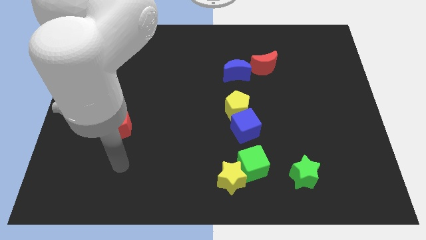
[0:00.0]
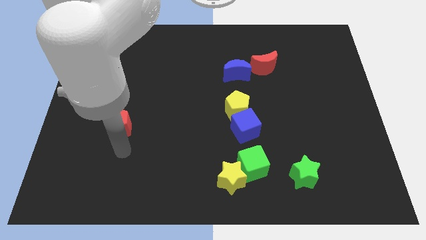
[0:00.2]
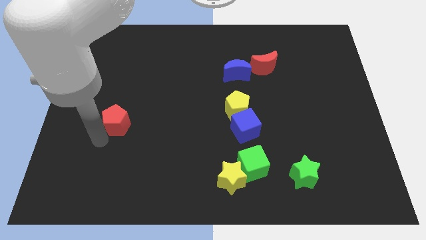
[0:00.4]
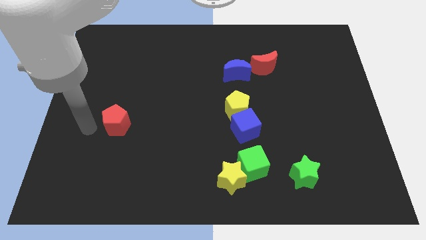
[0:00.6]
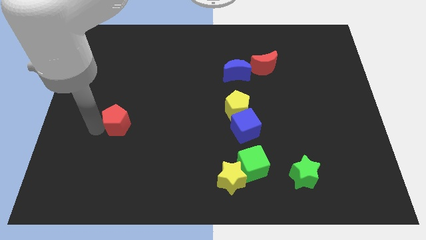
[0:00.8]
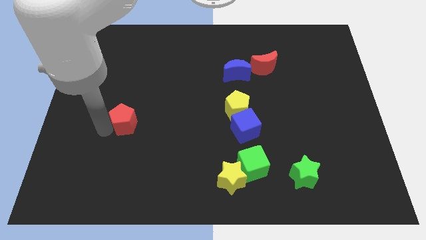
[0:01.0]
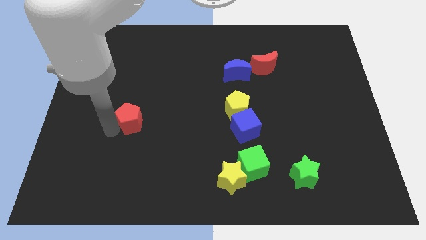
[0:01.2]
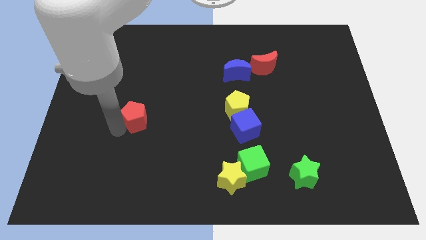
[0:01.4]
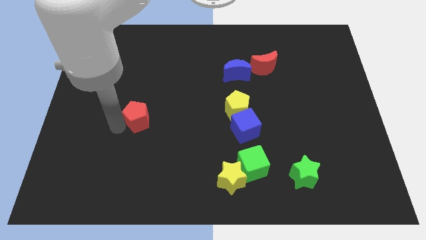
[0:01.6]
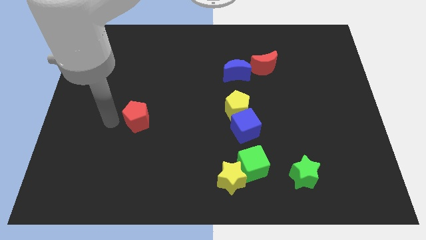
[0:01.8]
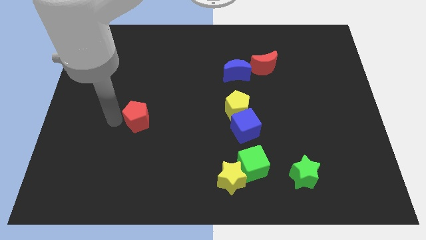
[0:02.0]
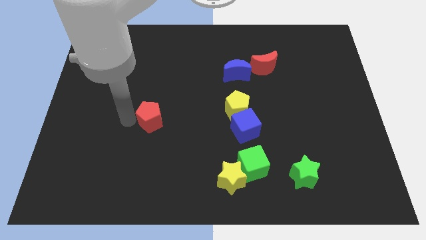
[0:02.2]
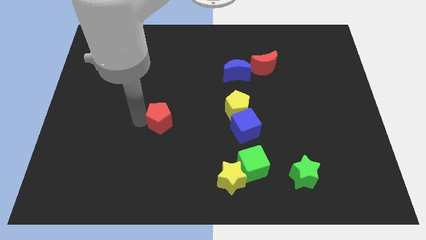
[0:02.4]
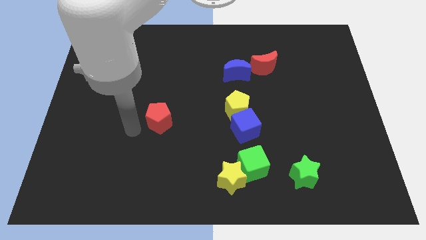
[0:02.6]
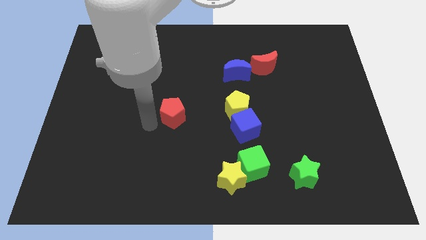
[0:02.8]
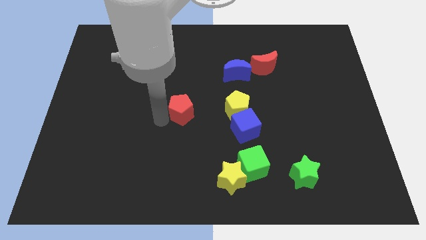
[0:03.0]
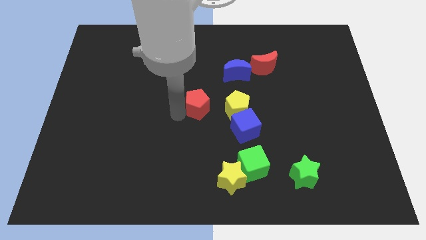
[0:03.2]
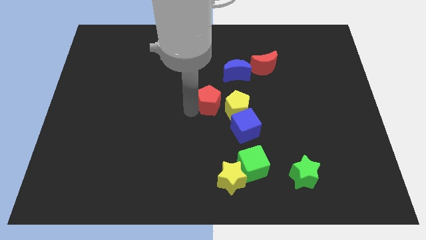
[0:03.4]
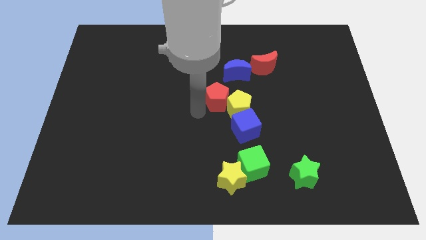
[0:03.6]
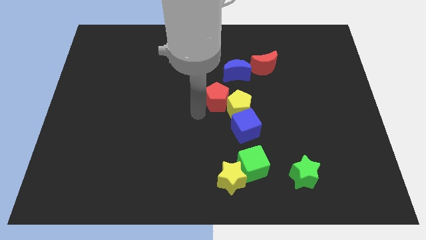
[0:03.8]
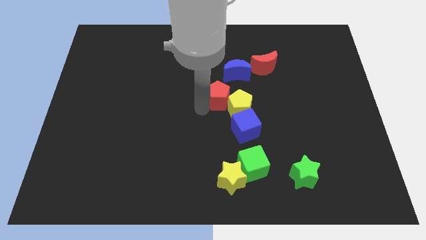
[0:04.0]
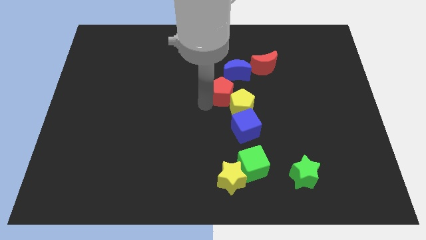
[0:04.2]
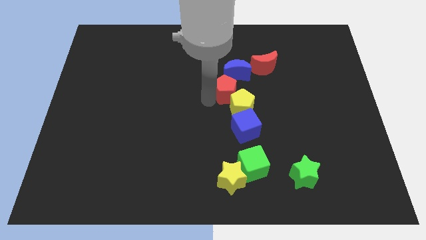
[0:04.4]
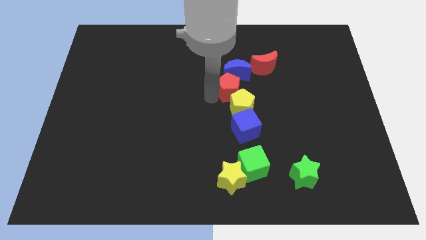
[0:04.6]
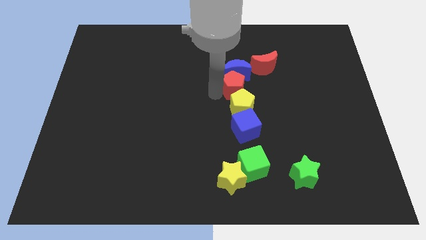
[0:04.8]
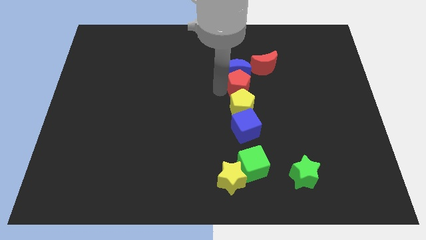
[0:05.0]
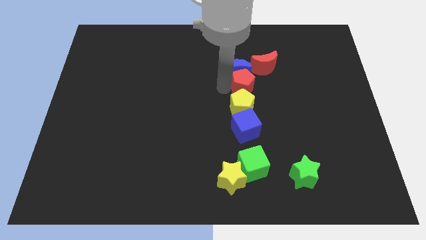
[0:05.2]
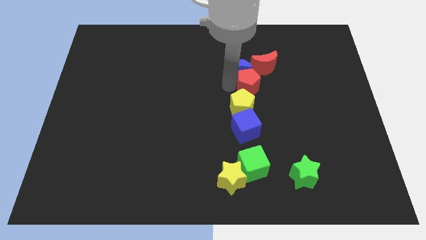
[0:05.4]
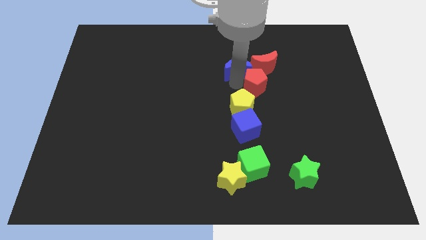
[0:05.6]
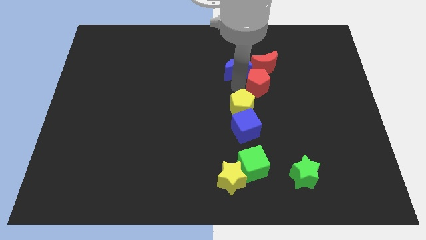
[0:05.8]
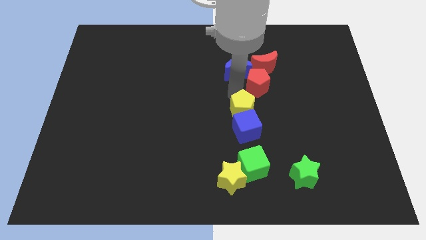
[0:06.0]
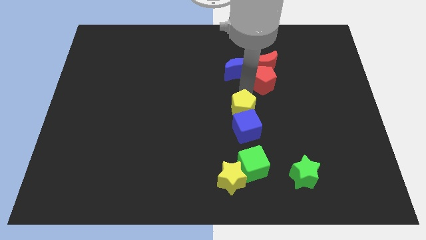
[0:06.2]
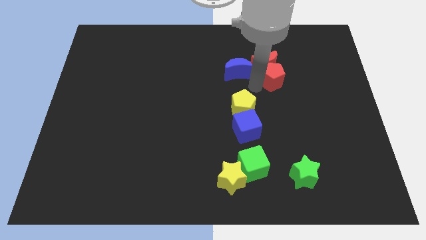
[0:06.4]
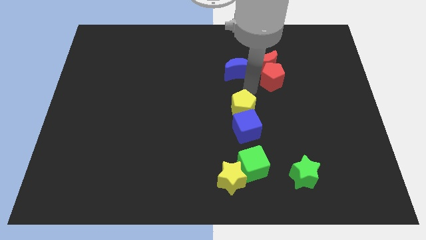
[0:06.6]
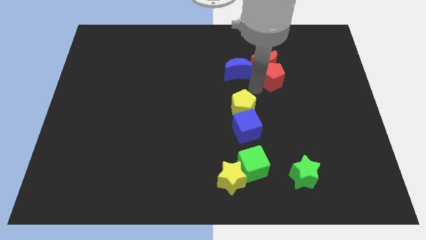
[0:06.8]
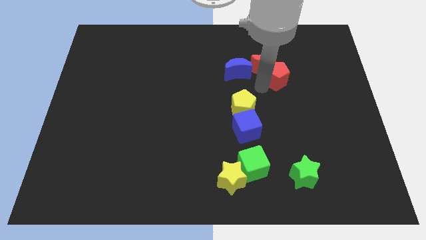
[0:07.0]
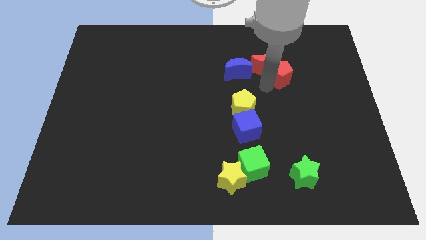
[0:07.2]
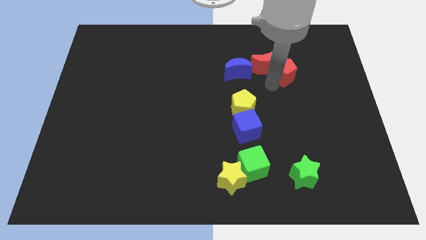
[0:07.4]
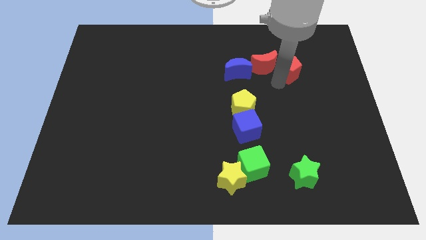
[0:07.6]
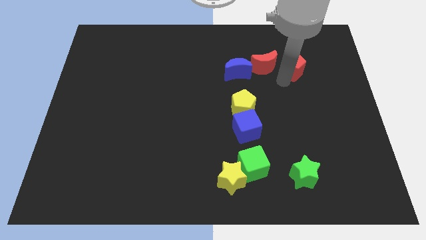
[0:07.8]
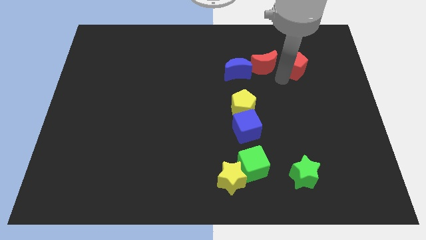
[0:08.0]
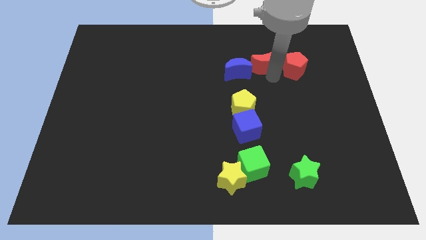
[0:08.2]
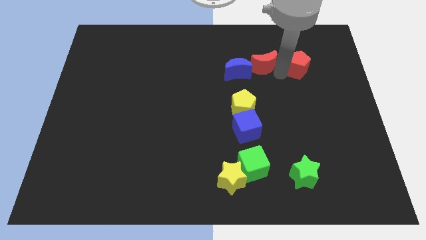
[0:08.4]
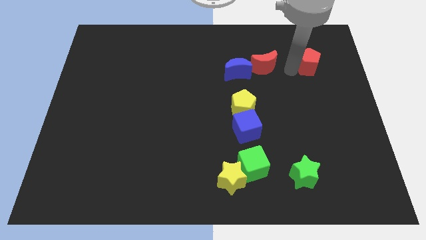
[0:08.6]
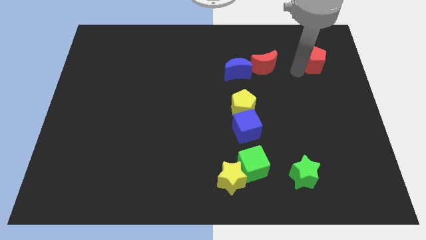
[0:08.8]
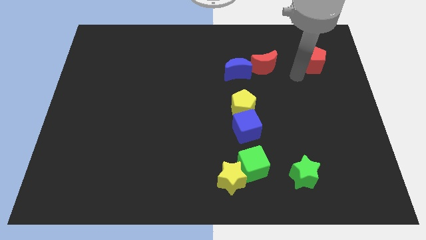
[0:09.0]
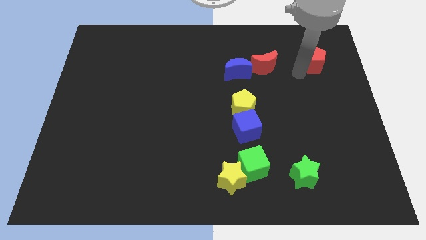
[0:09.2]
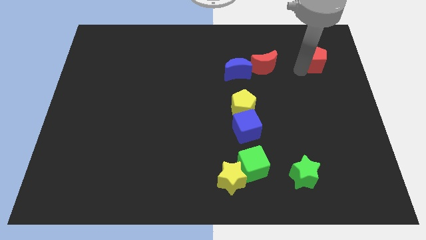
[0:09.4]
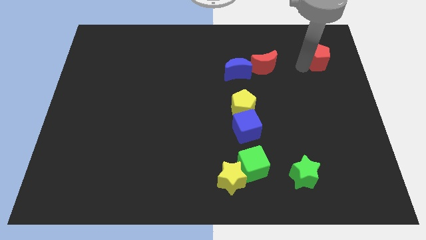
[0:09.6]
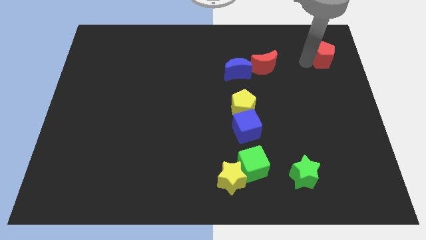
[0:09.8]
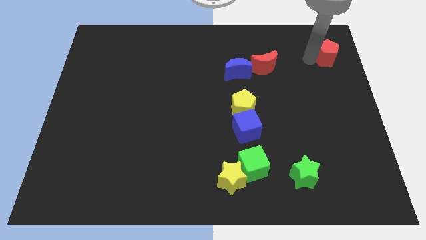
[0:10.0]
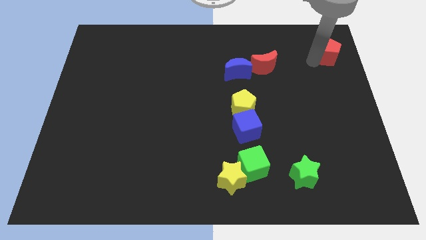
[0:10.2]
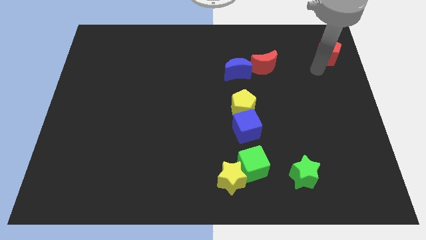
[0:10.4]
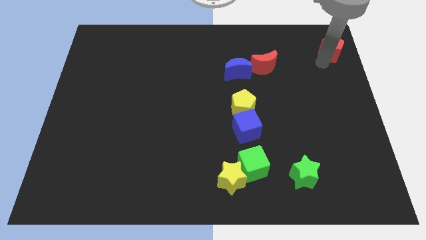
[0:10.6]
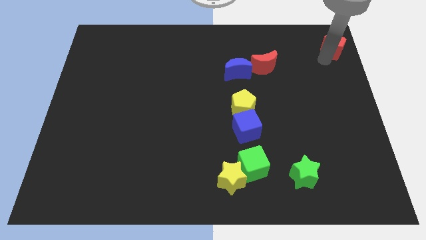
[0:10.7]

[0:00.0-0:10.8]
put the red pentagon to the top right of the board

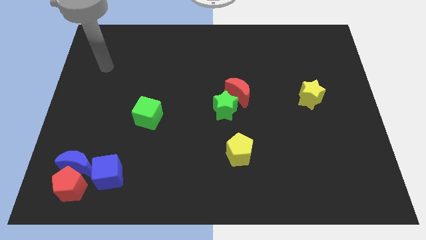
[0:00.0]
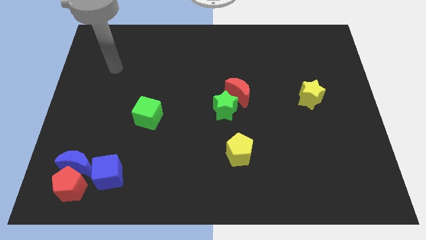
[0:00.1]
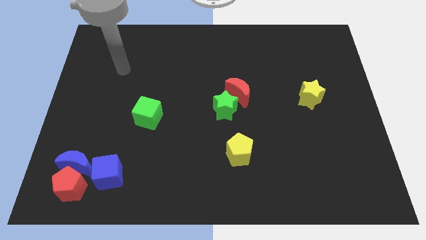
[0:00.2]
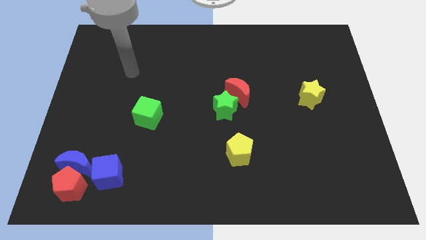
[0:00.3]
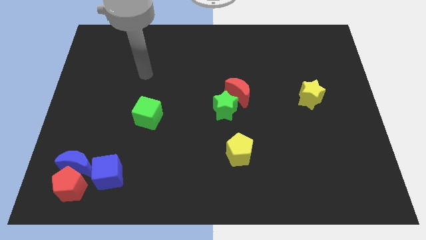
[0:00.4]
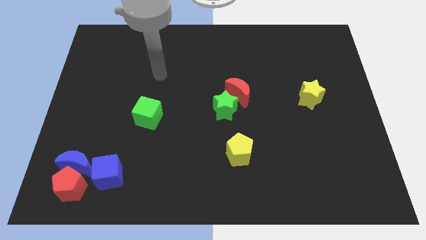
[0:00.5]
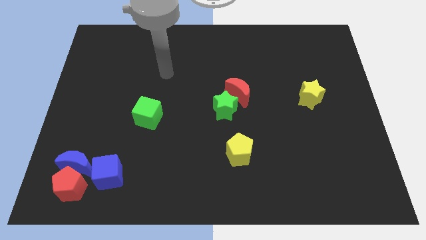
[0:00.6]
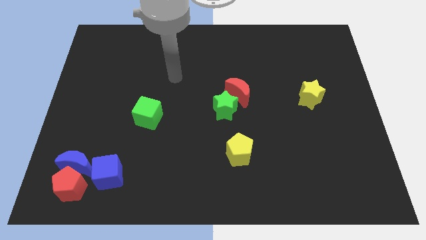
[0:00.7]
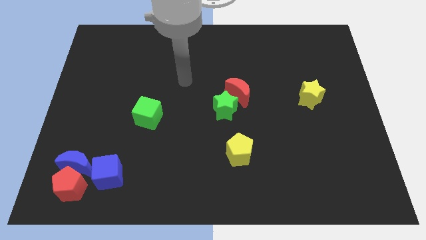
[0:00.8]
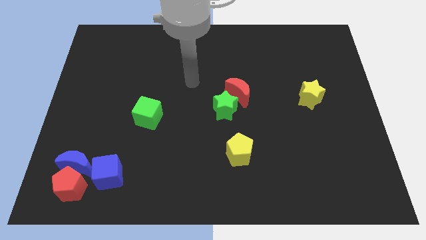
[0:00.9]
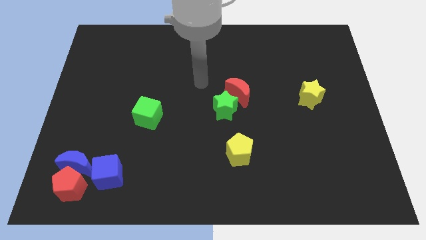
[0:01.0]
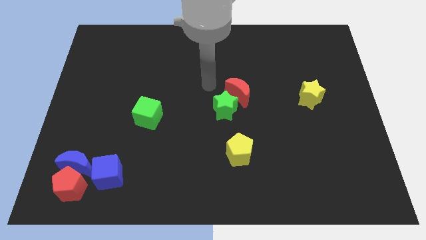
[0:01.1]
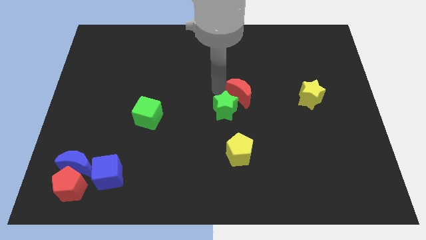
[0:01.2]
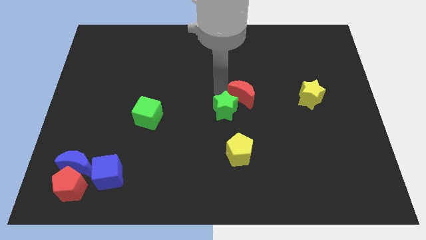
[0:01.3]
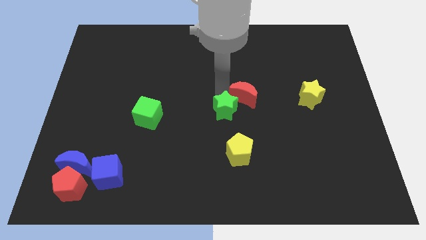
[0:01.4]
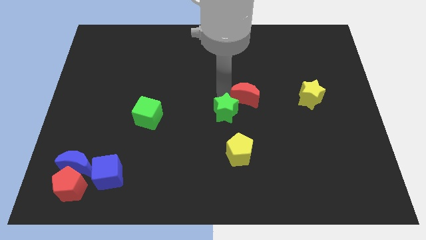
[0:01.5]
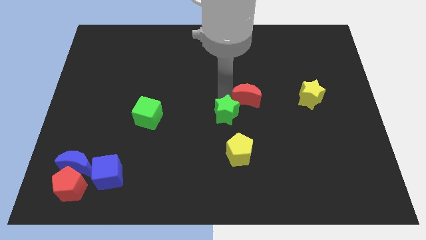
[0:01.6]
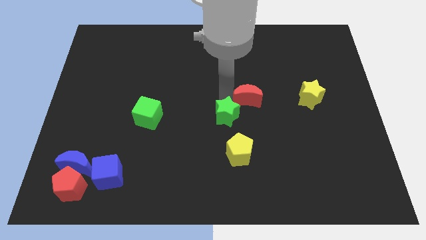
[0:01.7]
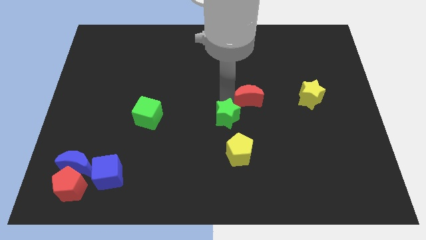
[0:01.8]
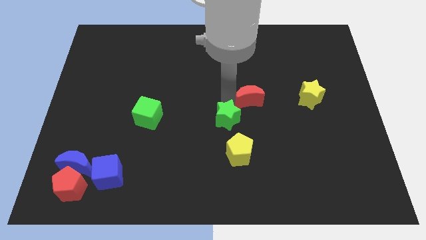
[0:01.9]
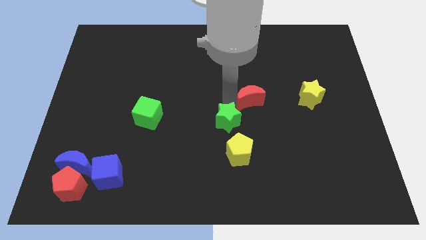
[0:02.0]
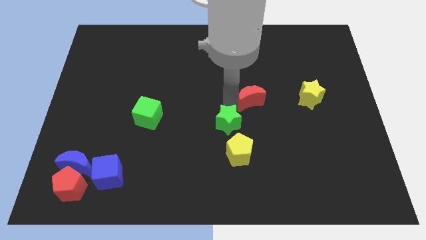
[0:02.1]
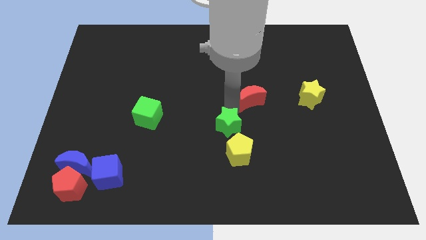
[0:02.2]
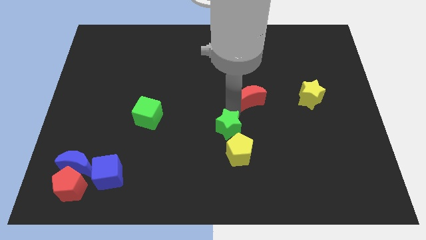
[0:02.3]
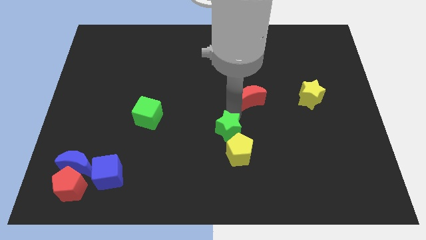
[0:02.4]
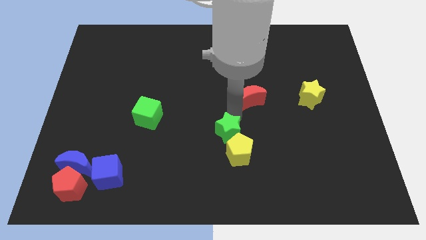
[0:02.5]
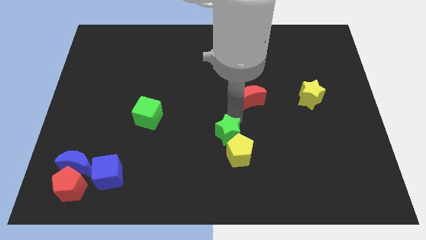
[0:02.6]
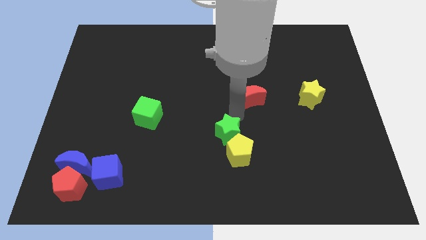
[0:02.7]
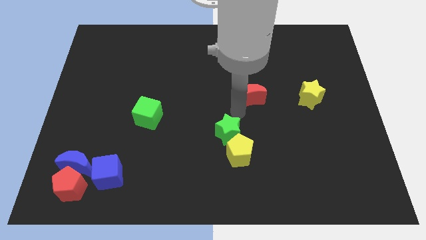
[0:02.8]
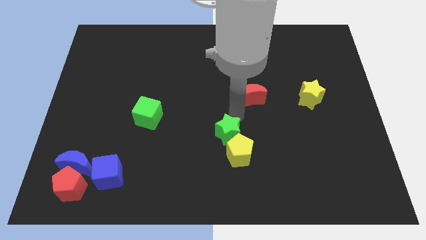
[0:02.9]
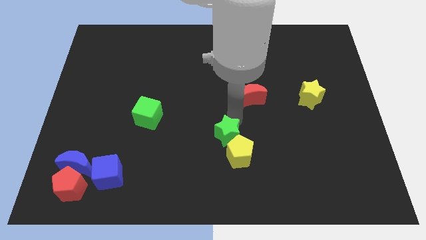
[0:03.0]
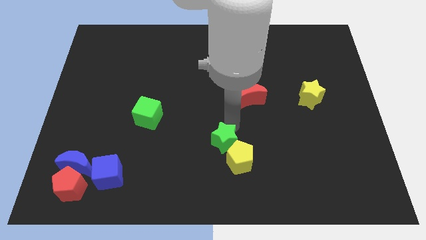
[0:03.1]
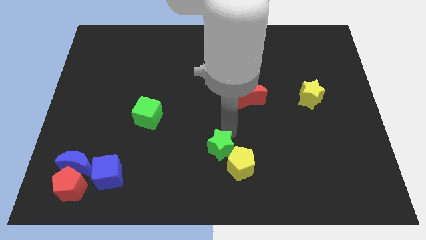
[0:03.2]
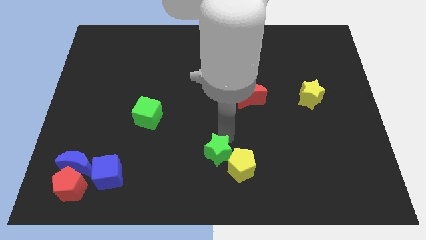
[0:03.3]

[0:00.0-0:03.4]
move the green star to the bottom side
